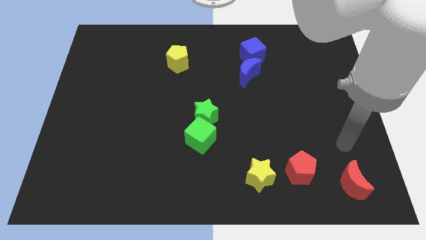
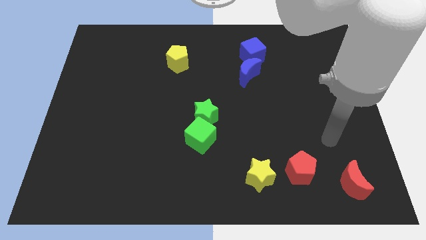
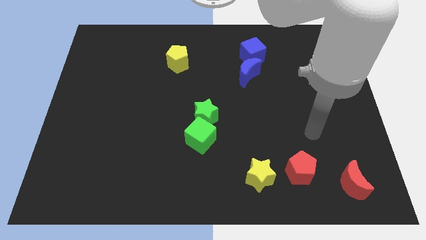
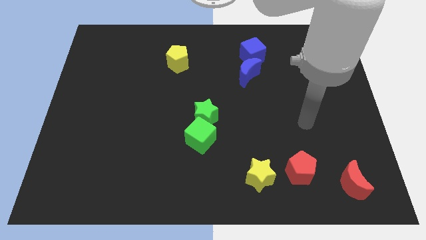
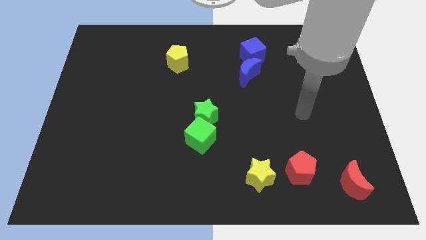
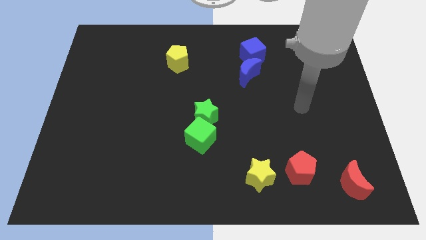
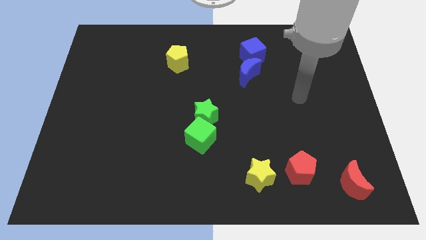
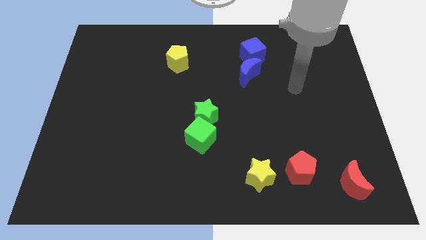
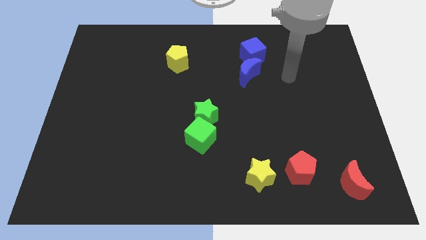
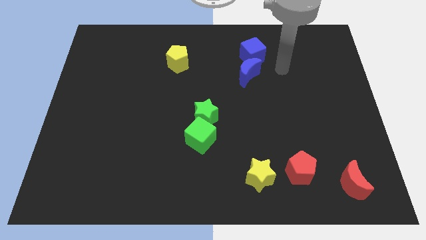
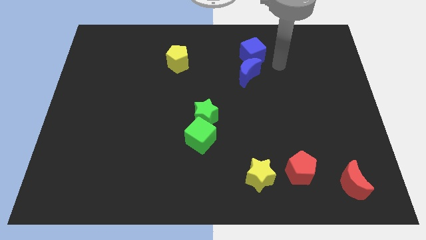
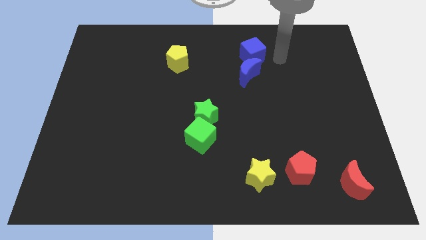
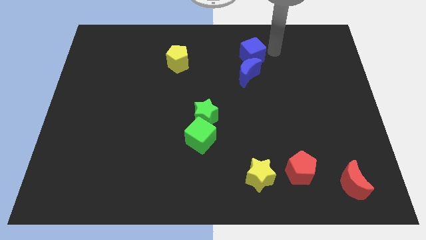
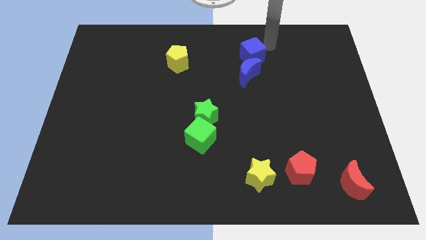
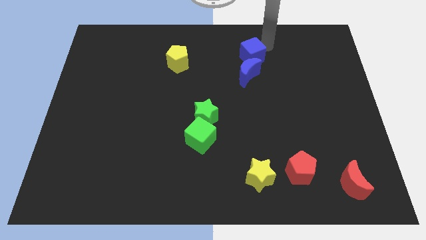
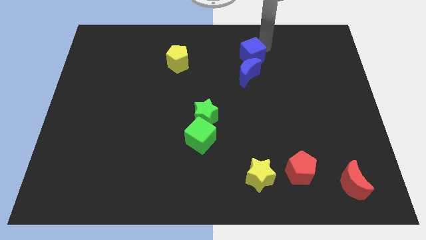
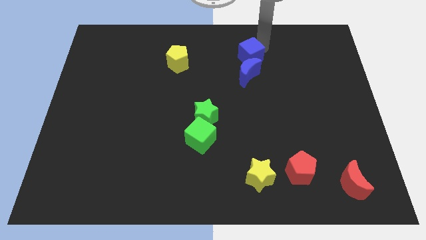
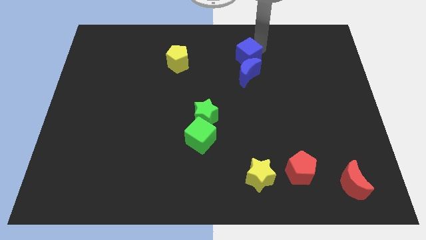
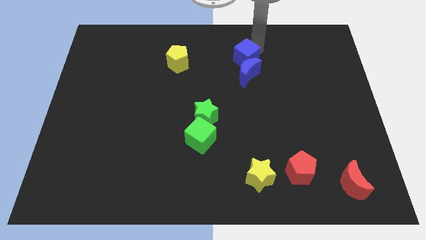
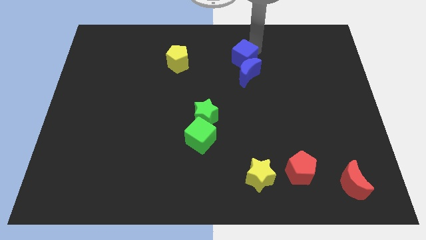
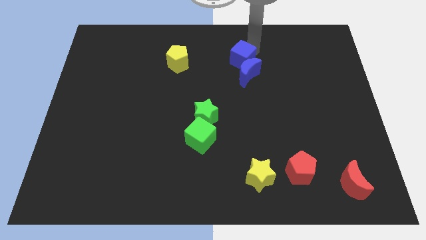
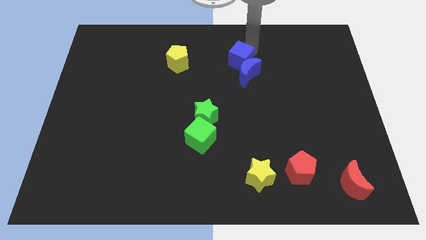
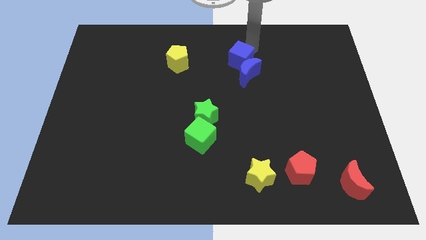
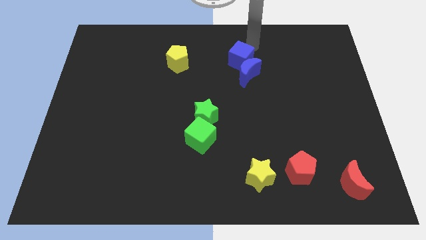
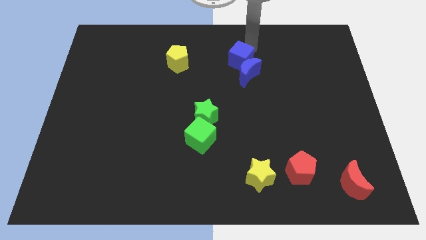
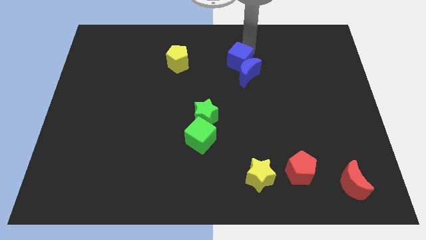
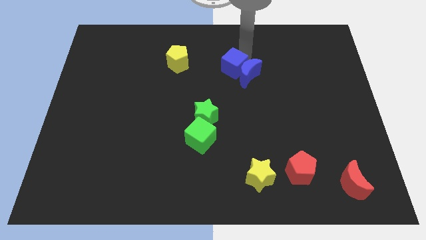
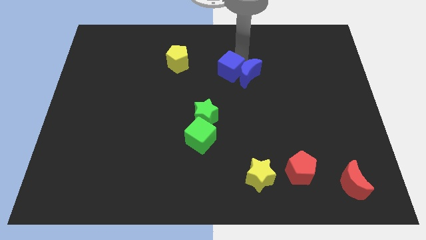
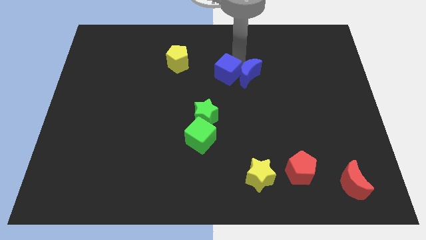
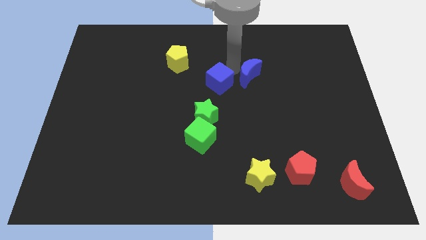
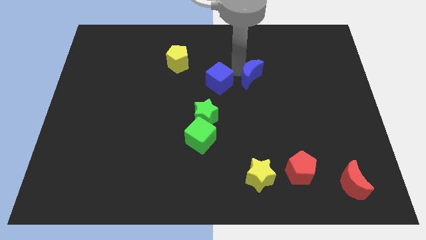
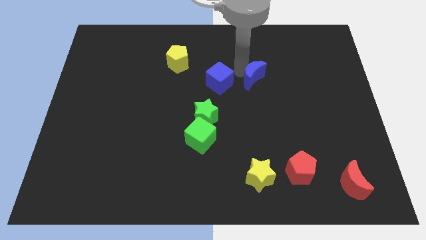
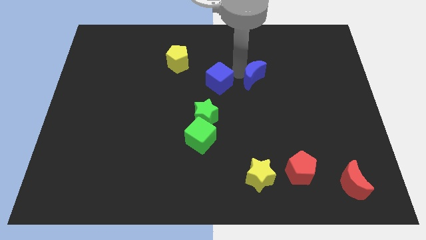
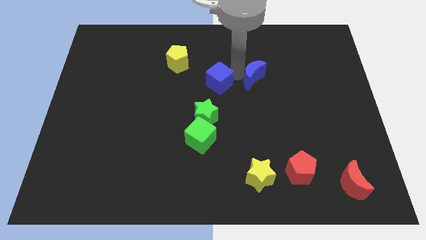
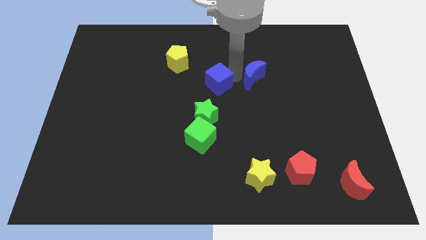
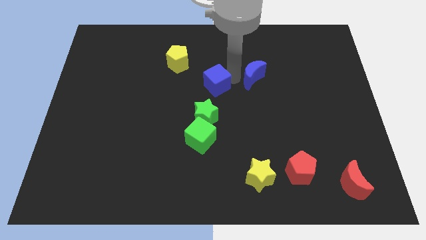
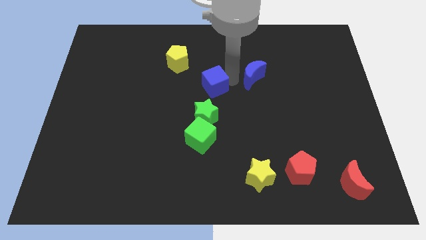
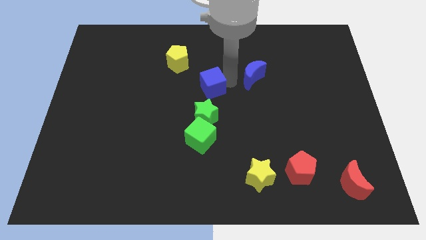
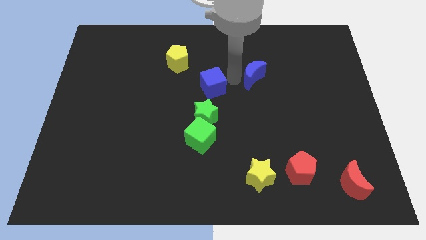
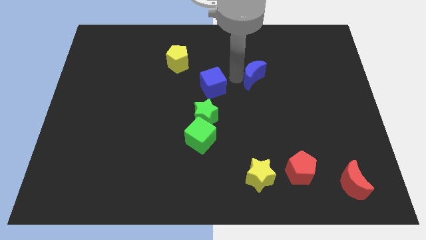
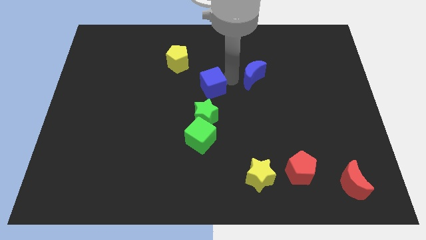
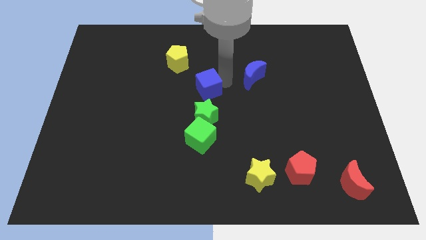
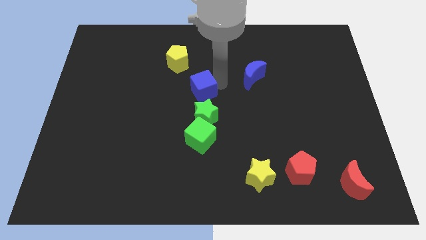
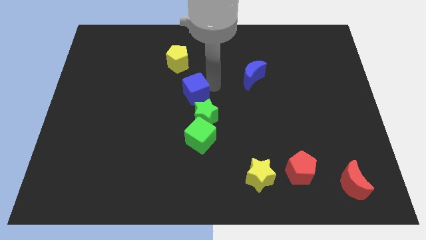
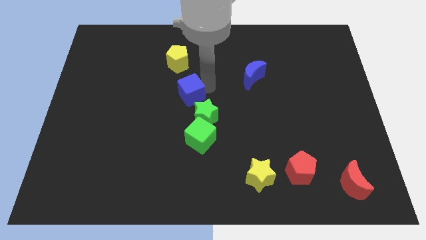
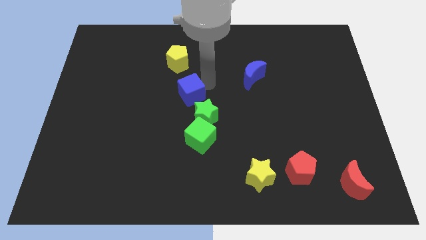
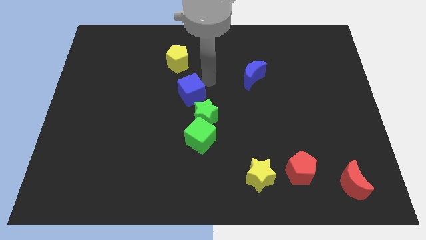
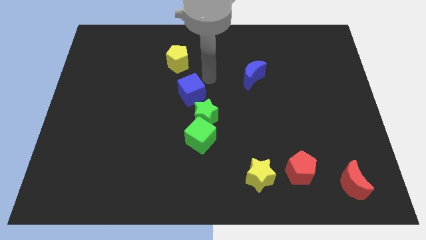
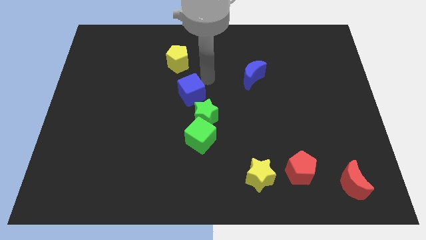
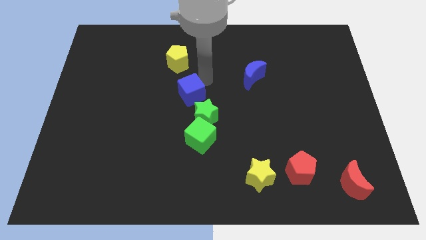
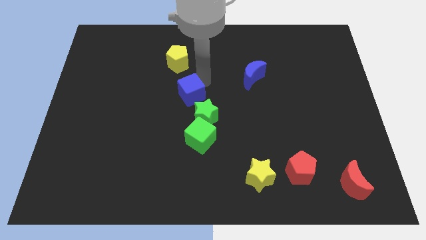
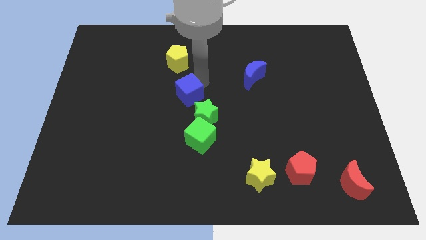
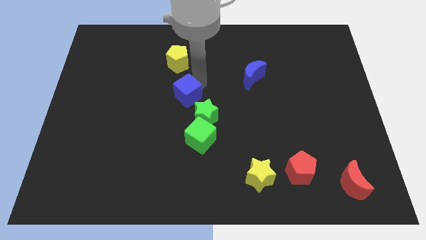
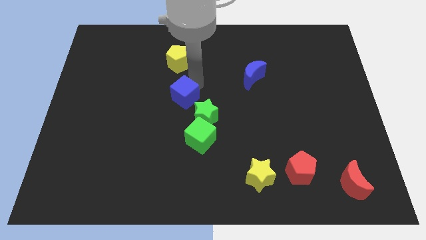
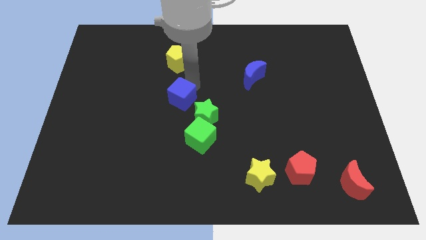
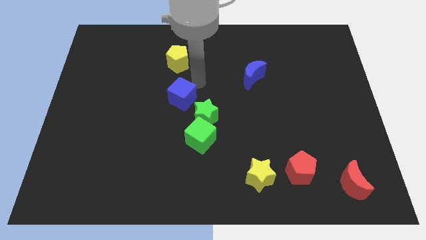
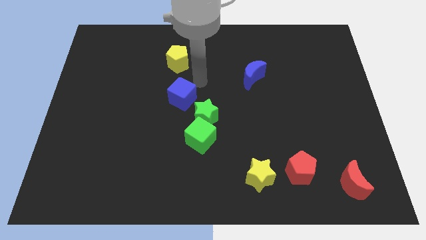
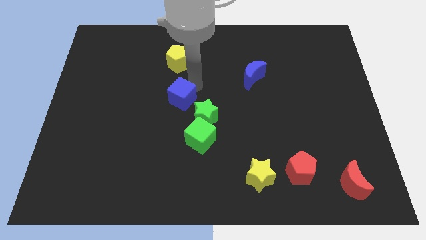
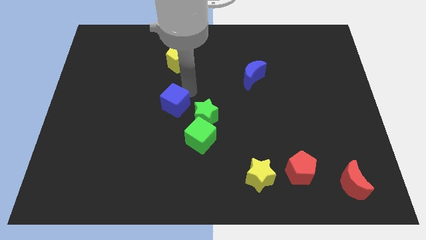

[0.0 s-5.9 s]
put the blue cube just left of the green star

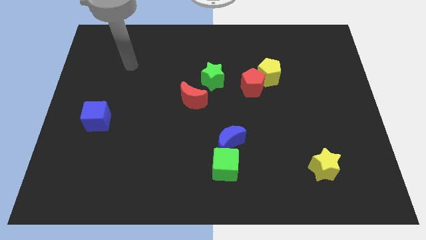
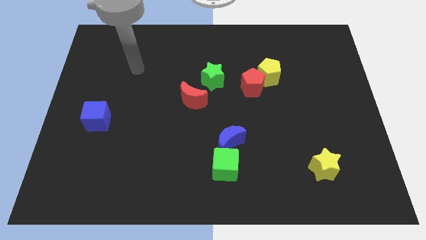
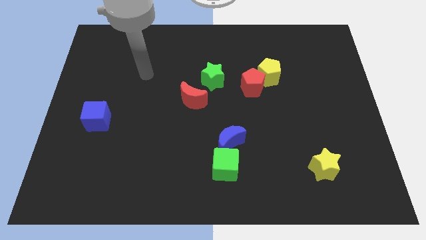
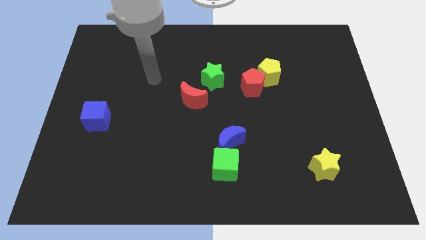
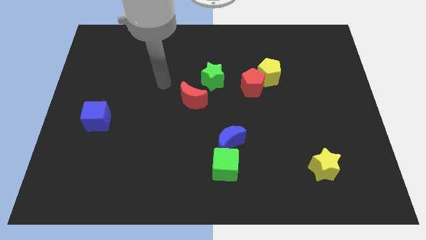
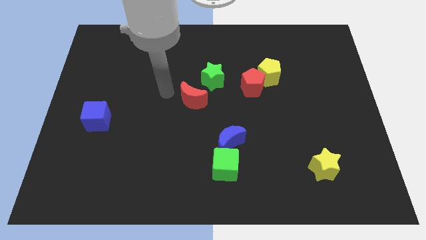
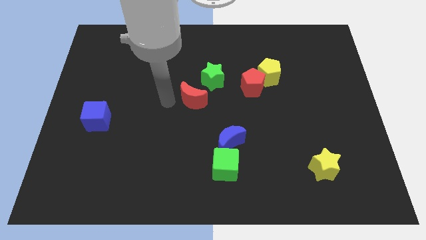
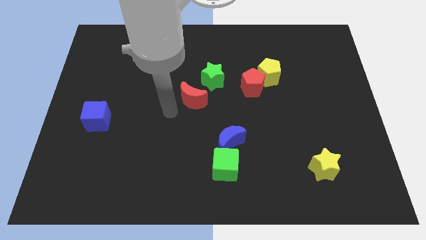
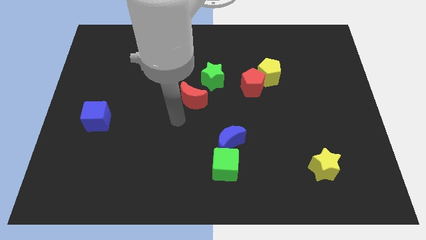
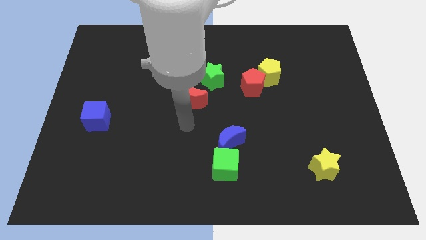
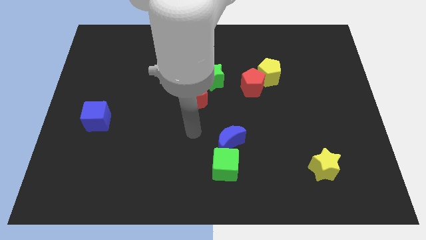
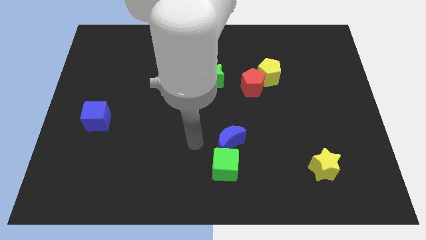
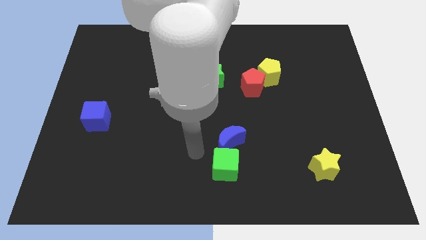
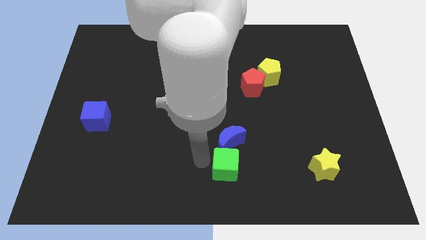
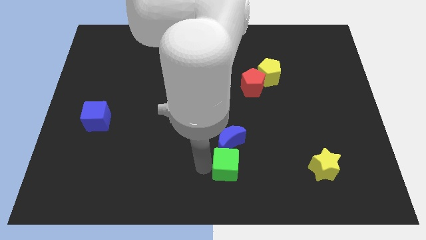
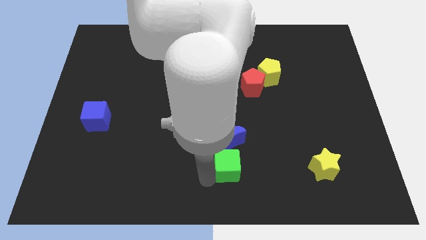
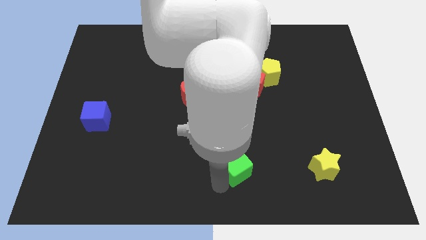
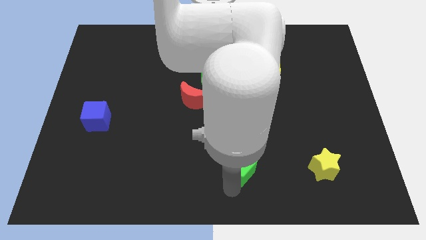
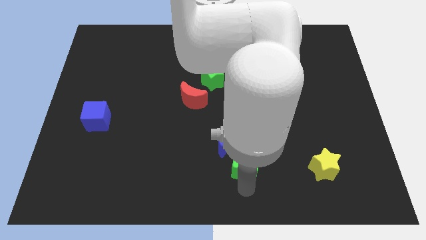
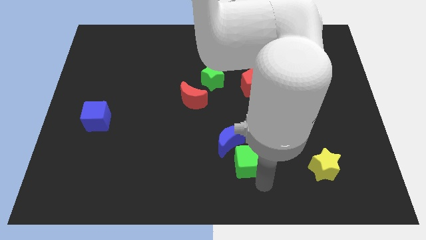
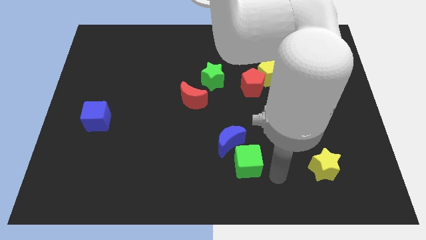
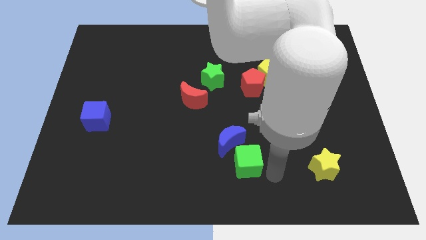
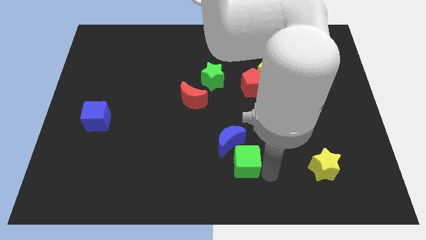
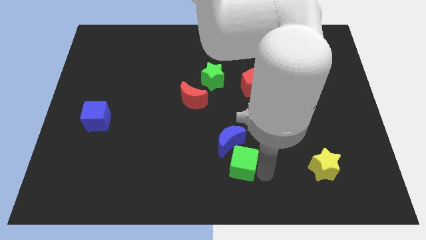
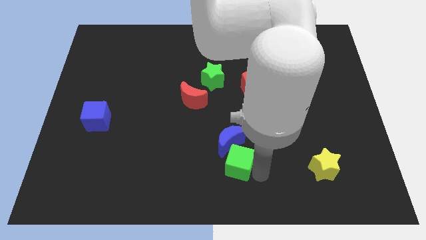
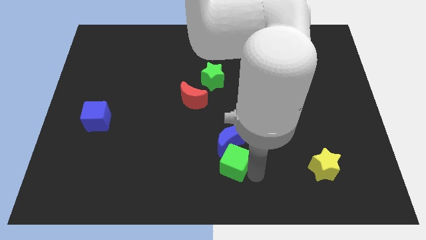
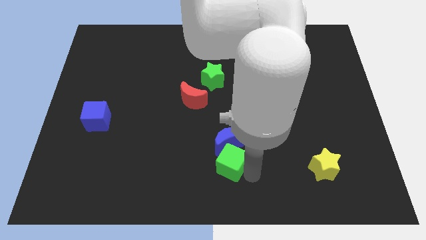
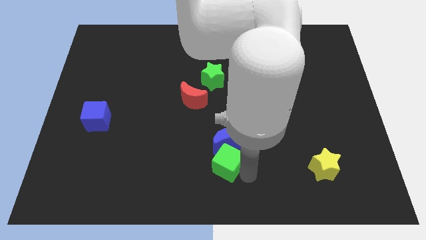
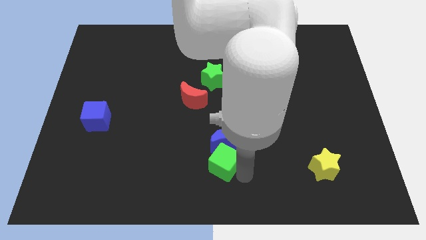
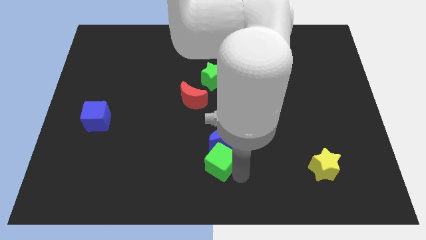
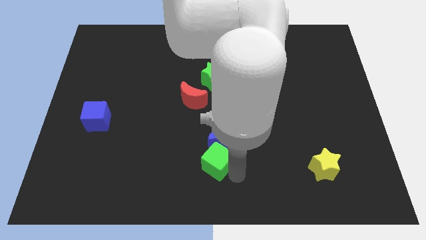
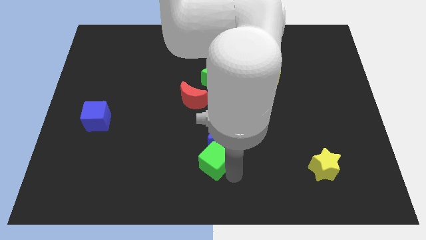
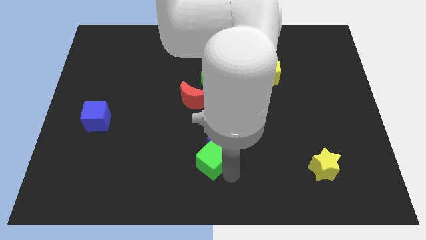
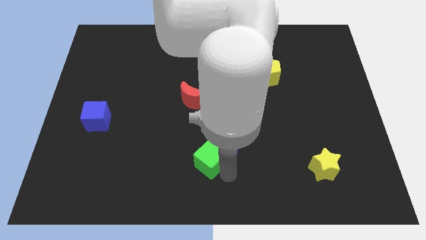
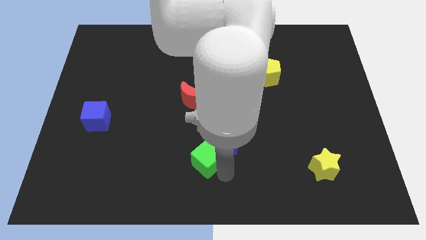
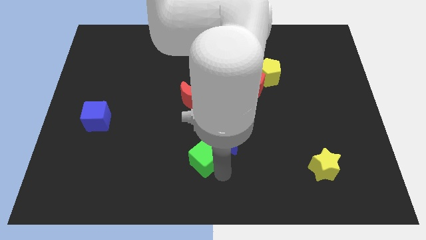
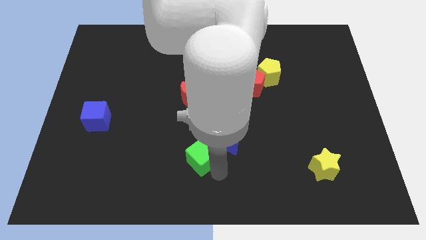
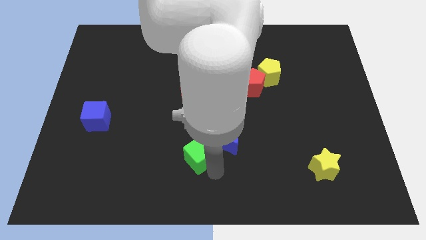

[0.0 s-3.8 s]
push the green cube to the bottom of the red moon
